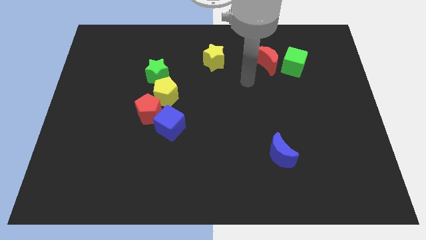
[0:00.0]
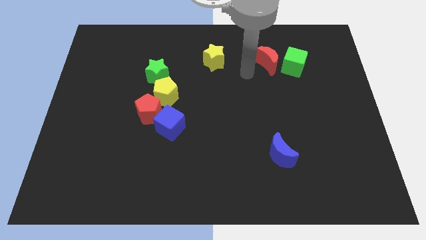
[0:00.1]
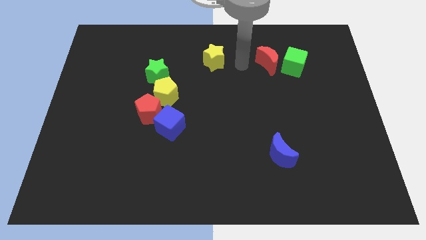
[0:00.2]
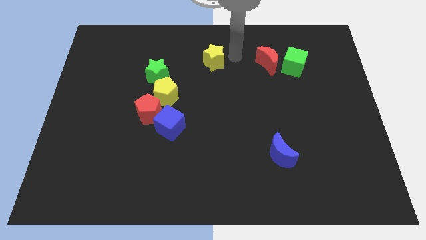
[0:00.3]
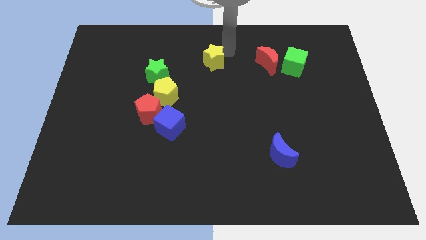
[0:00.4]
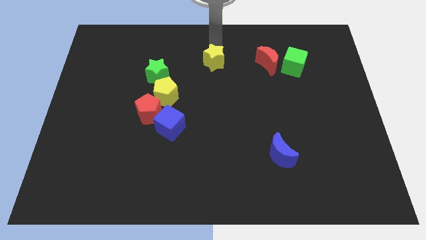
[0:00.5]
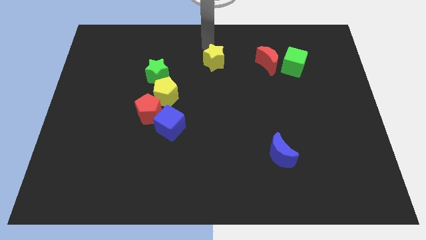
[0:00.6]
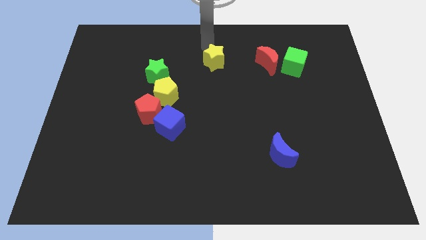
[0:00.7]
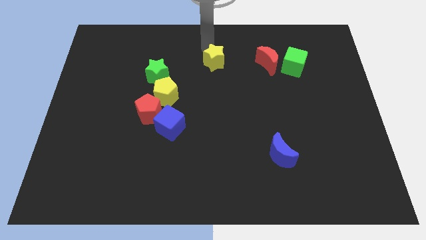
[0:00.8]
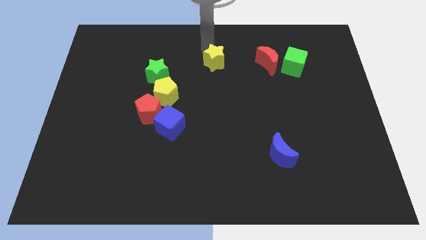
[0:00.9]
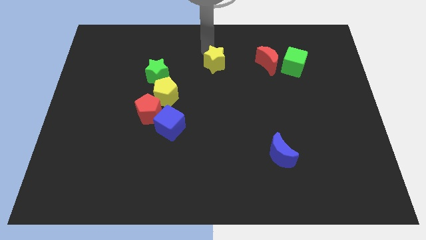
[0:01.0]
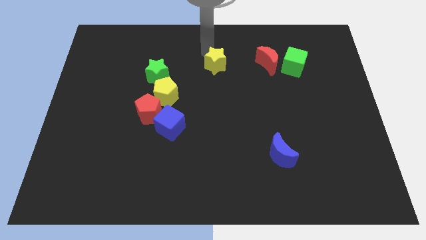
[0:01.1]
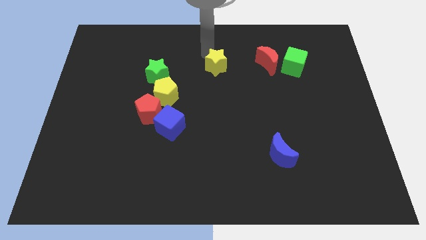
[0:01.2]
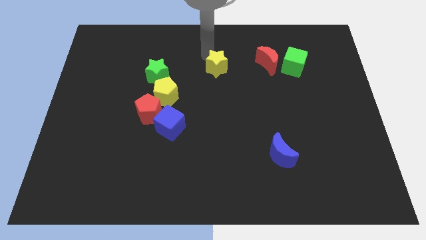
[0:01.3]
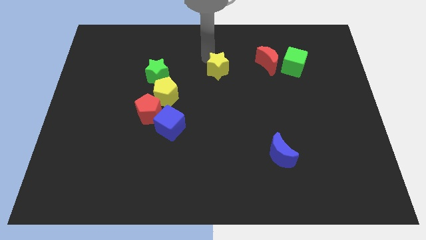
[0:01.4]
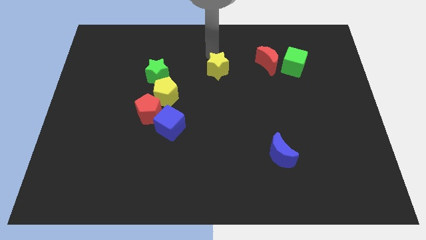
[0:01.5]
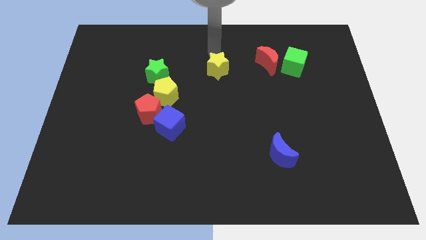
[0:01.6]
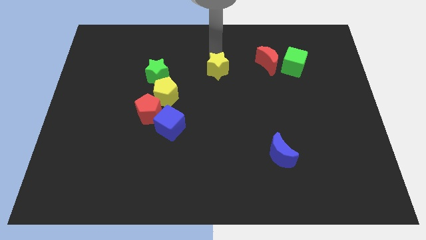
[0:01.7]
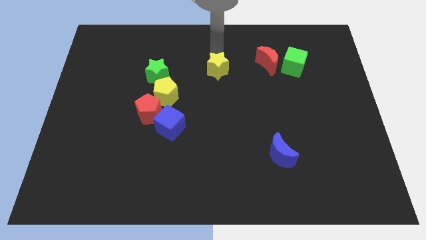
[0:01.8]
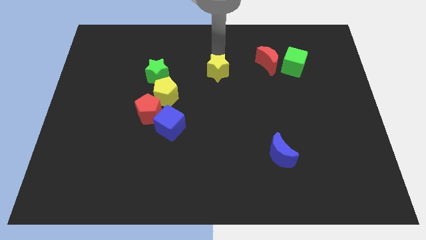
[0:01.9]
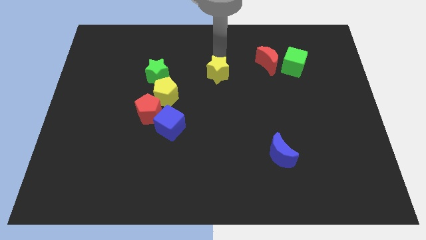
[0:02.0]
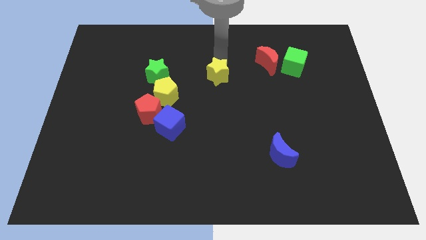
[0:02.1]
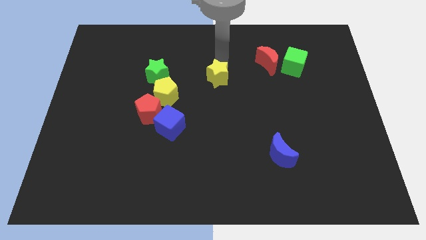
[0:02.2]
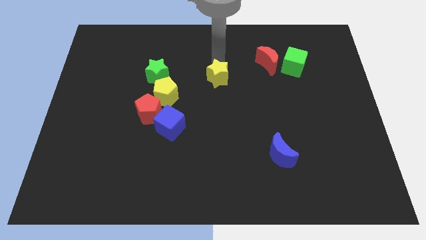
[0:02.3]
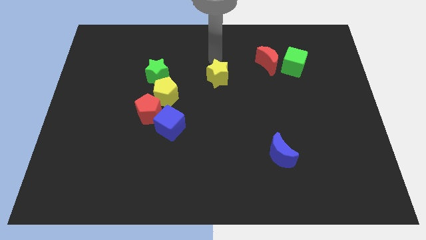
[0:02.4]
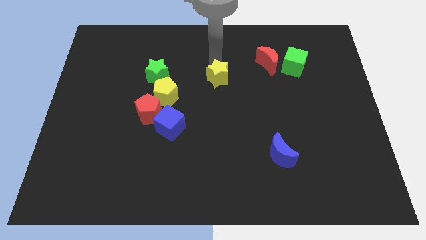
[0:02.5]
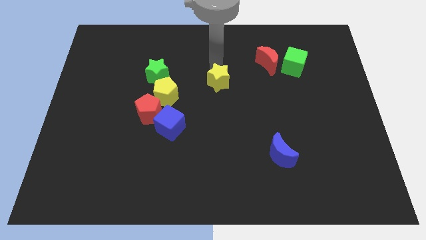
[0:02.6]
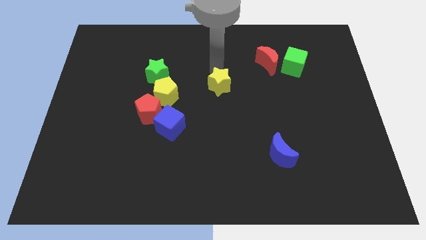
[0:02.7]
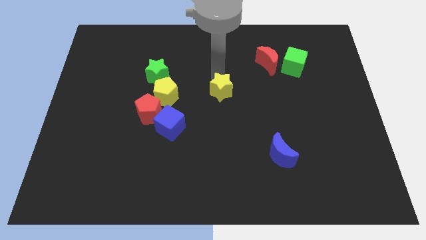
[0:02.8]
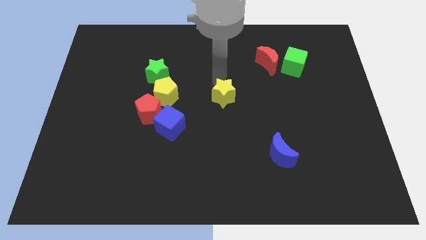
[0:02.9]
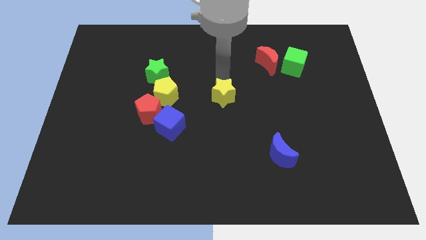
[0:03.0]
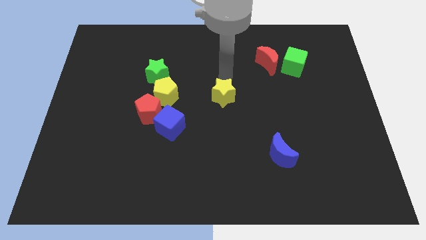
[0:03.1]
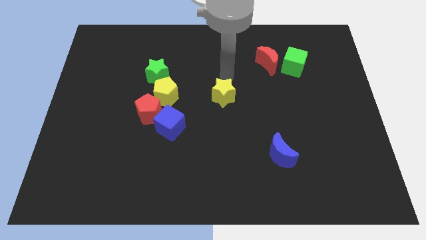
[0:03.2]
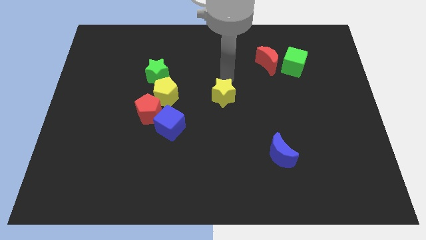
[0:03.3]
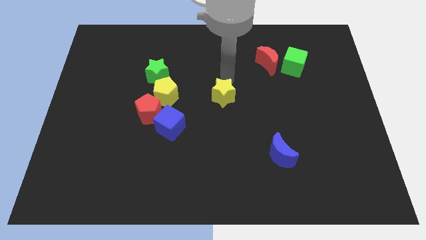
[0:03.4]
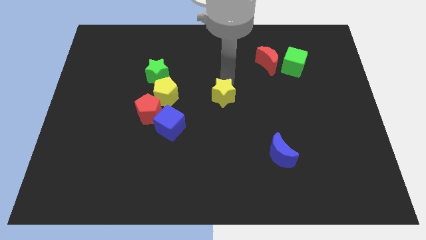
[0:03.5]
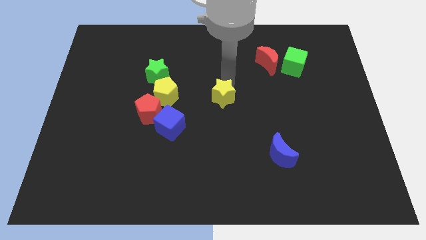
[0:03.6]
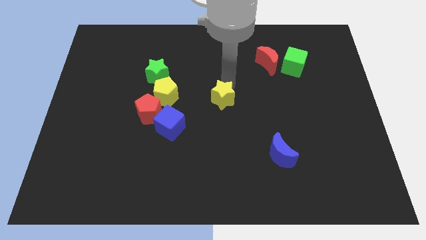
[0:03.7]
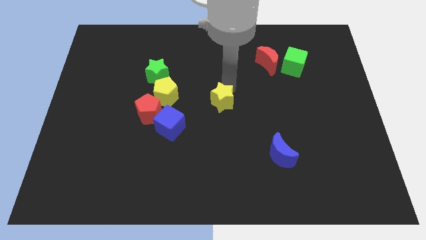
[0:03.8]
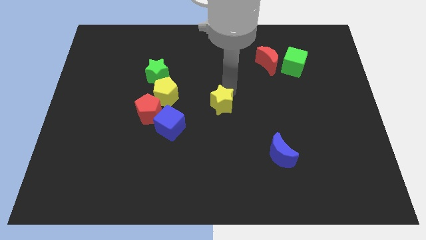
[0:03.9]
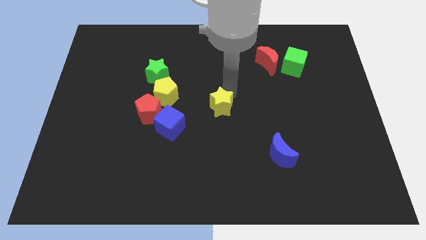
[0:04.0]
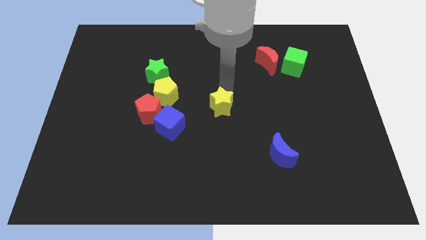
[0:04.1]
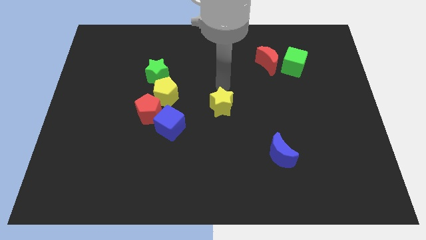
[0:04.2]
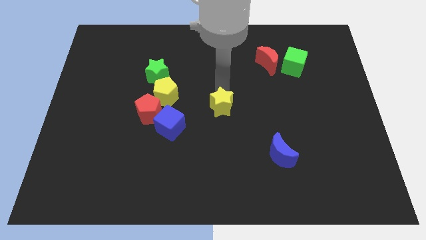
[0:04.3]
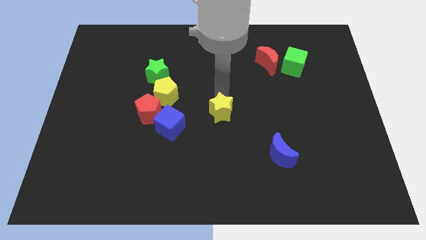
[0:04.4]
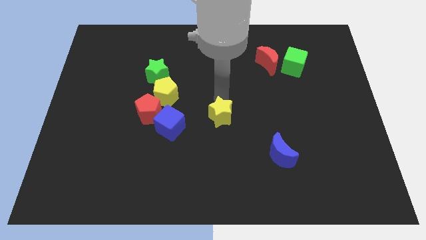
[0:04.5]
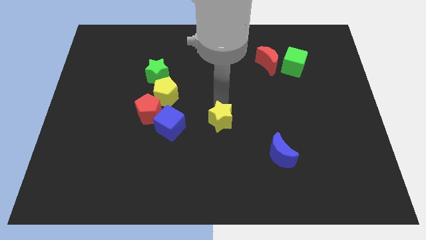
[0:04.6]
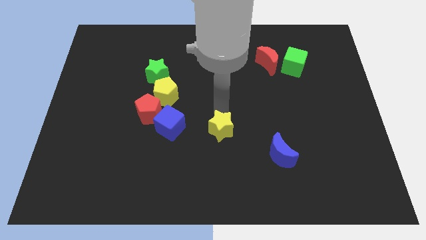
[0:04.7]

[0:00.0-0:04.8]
push the yellow star downwards

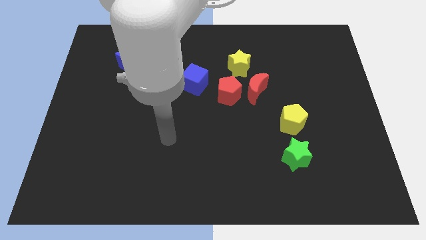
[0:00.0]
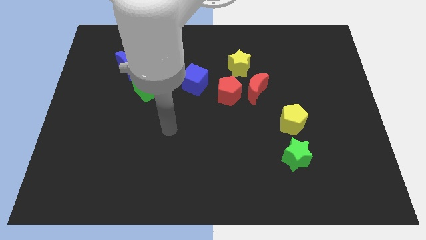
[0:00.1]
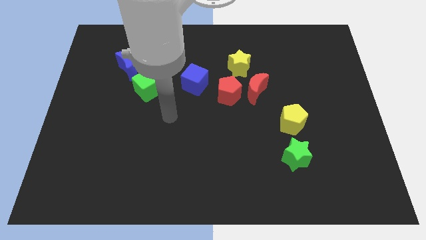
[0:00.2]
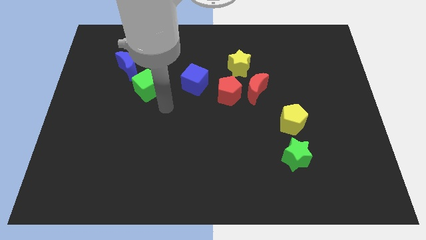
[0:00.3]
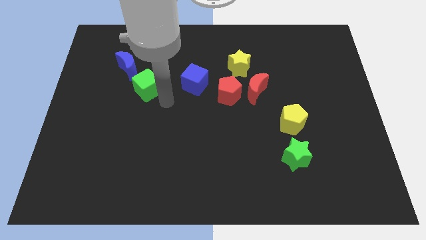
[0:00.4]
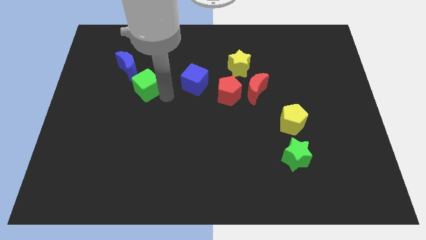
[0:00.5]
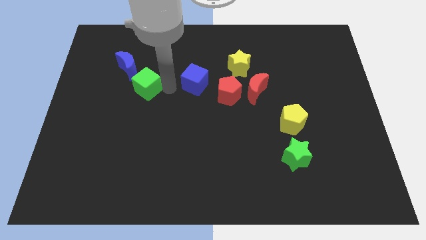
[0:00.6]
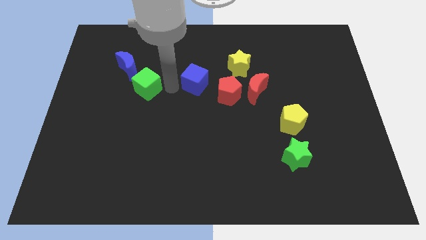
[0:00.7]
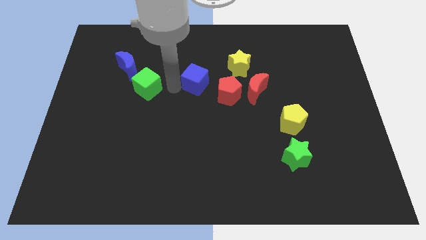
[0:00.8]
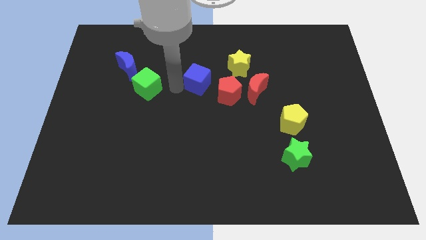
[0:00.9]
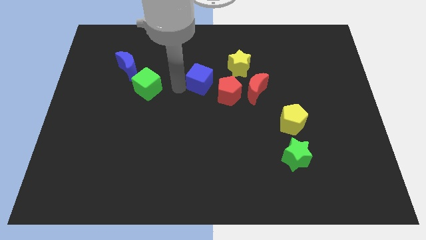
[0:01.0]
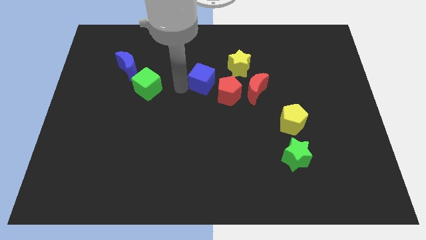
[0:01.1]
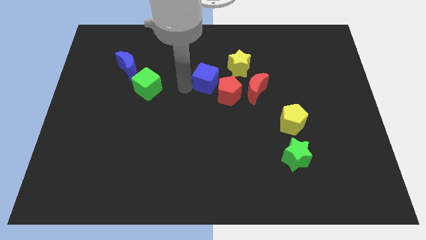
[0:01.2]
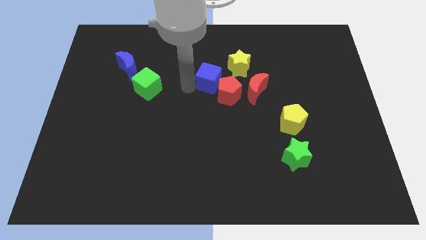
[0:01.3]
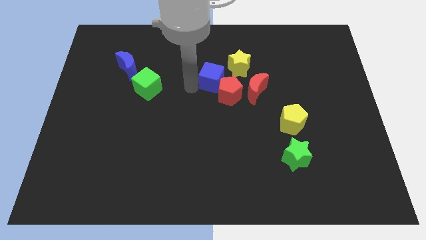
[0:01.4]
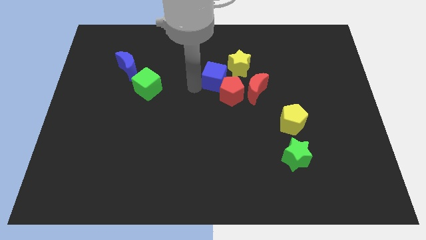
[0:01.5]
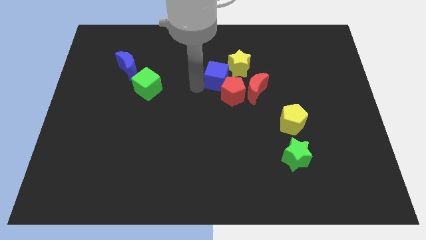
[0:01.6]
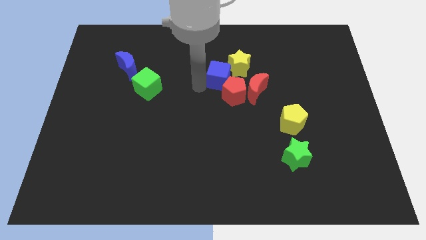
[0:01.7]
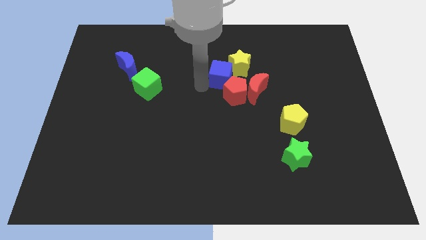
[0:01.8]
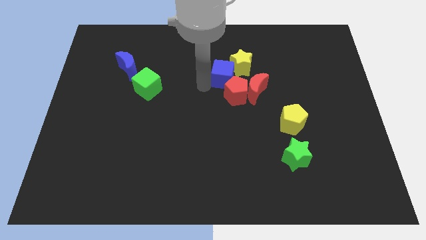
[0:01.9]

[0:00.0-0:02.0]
move the blue cube a little bit to the right

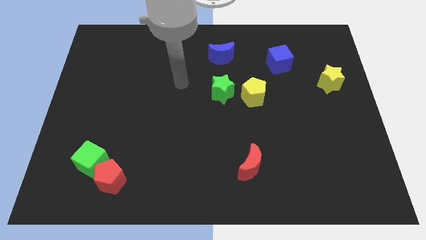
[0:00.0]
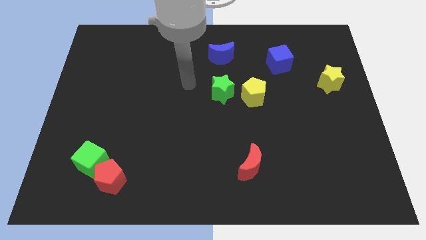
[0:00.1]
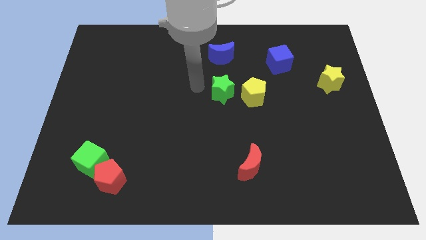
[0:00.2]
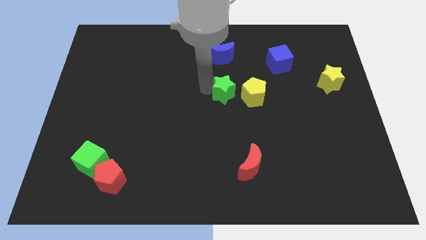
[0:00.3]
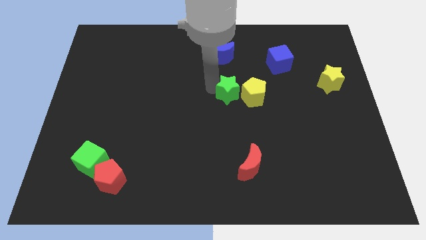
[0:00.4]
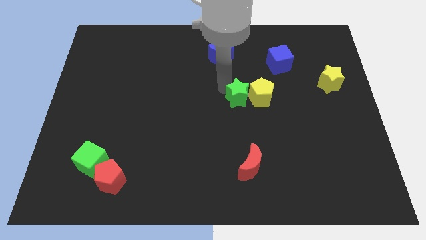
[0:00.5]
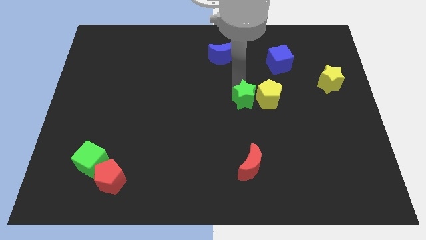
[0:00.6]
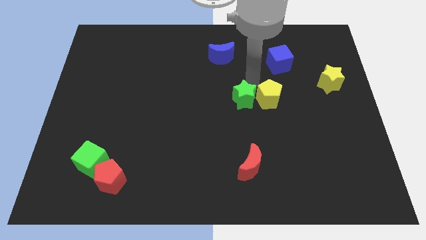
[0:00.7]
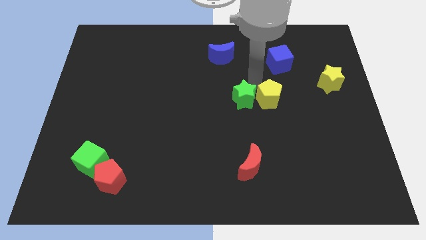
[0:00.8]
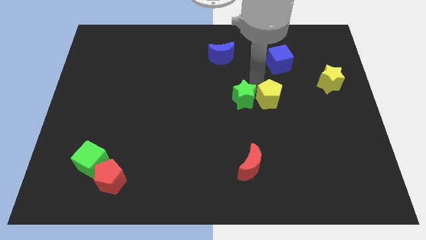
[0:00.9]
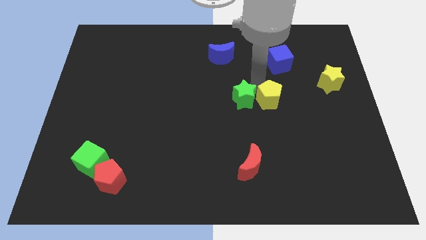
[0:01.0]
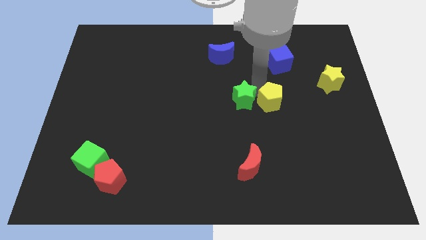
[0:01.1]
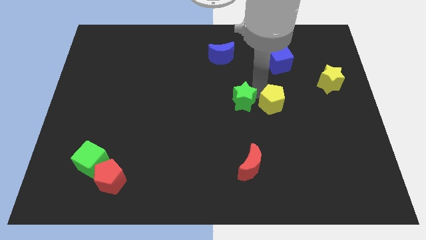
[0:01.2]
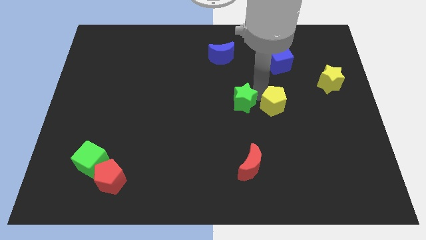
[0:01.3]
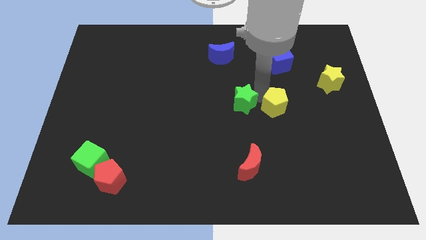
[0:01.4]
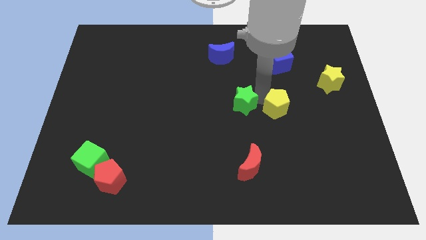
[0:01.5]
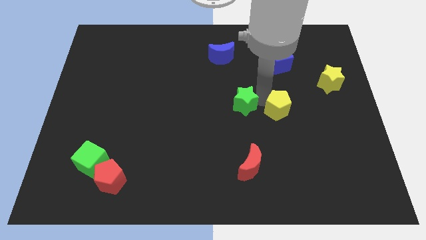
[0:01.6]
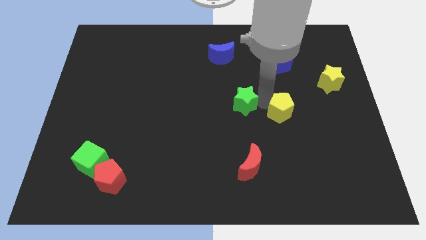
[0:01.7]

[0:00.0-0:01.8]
push the yellow pentagon downwards and to the right a bit

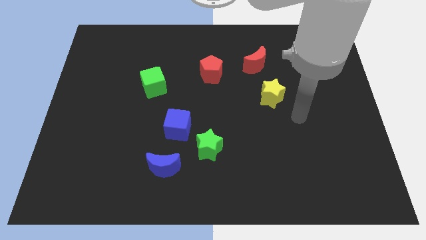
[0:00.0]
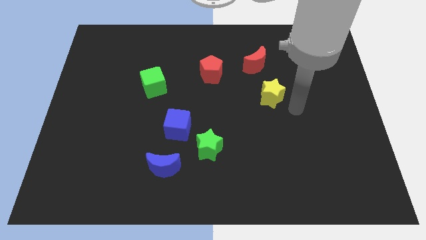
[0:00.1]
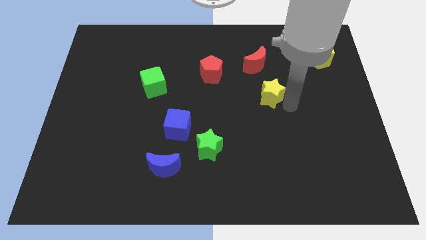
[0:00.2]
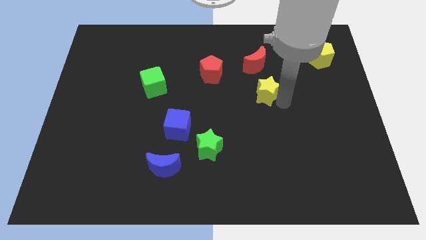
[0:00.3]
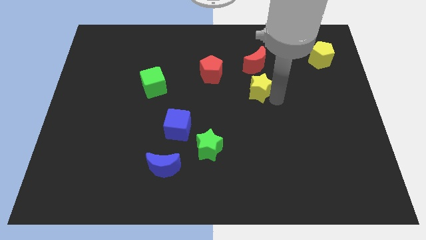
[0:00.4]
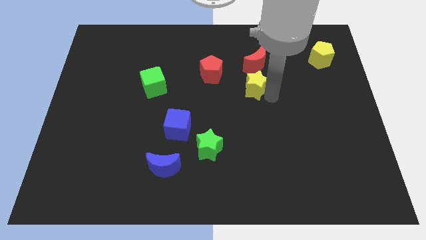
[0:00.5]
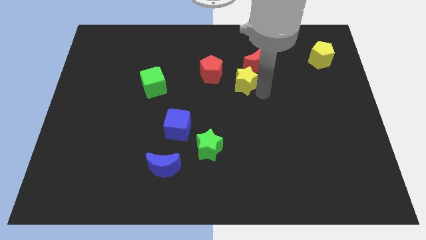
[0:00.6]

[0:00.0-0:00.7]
push the yellow star diagonally up and left a little bit
